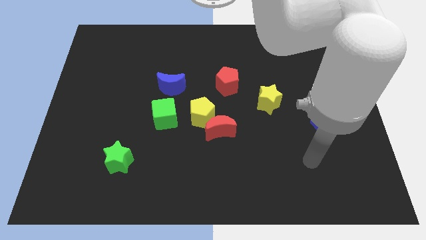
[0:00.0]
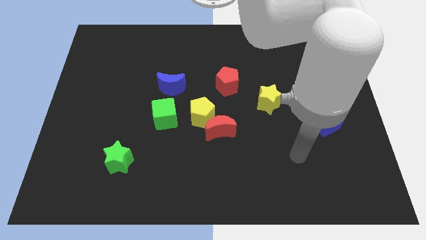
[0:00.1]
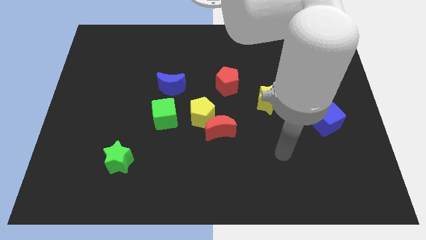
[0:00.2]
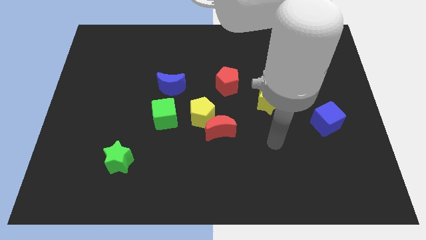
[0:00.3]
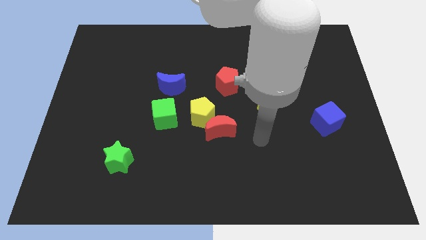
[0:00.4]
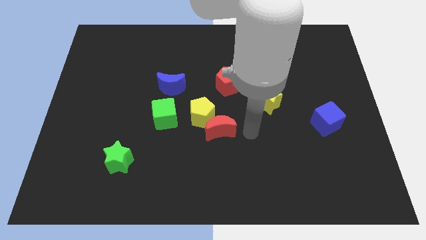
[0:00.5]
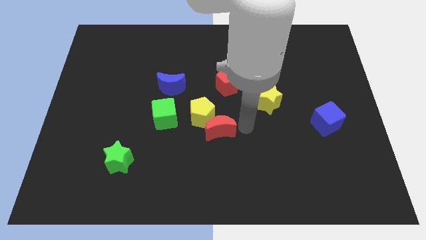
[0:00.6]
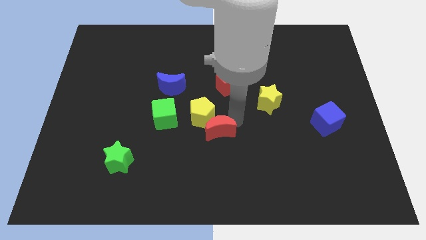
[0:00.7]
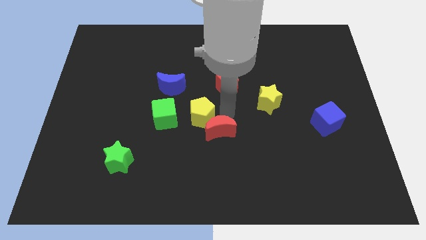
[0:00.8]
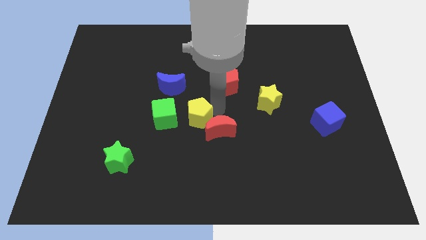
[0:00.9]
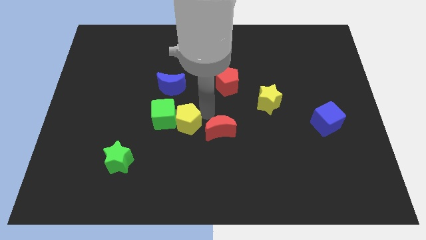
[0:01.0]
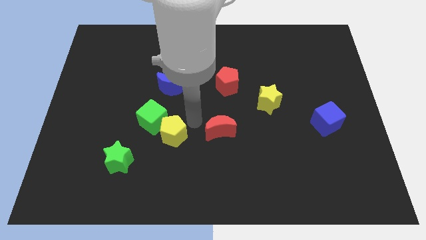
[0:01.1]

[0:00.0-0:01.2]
pull the red moon apart from the yellow pentagon

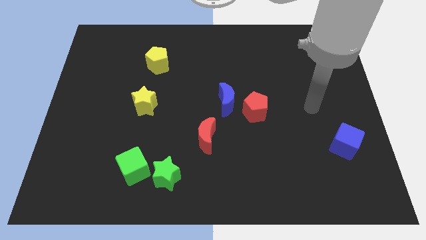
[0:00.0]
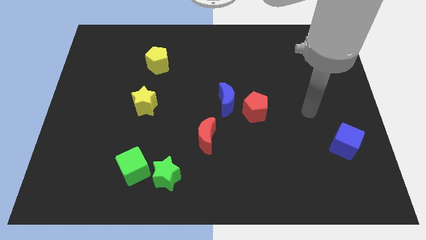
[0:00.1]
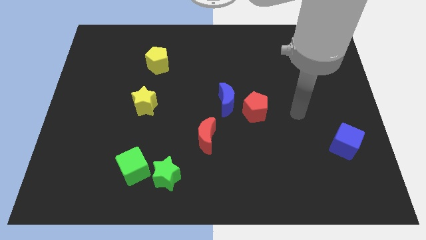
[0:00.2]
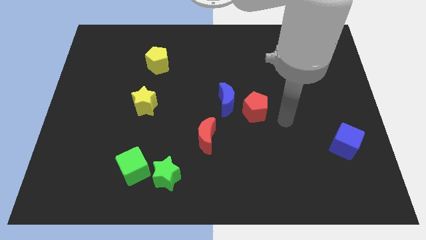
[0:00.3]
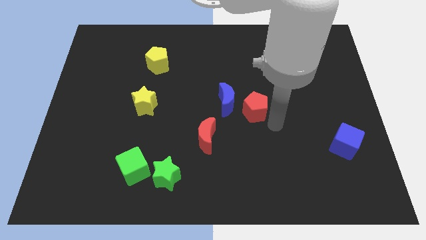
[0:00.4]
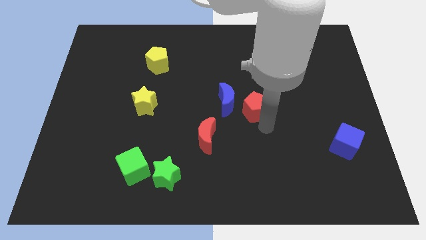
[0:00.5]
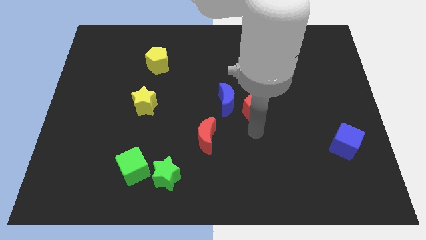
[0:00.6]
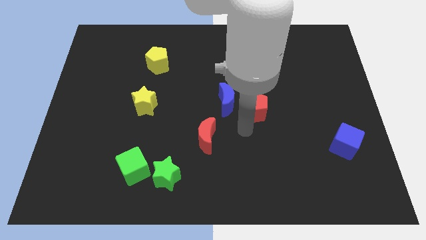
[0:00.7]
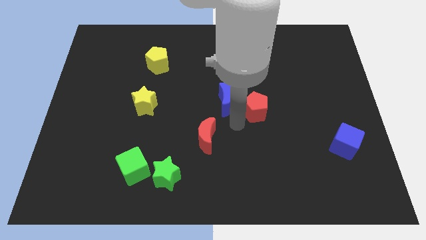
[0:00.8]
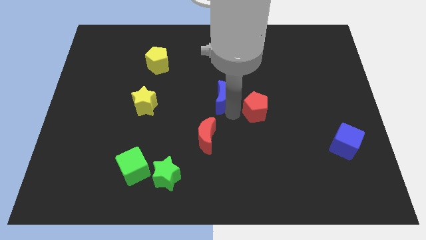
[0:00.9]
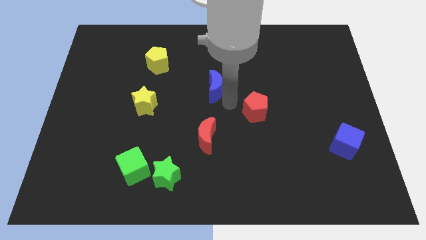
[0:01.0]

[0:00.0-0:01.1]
separate the red pentagon from the blue moon

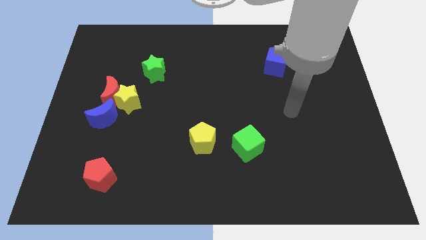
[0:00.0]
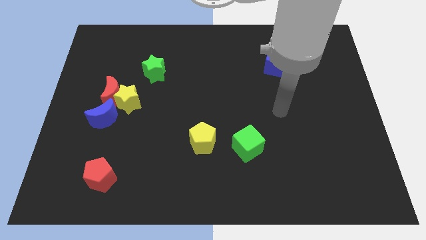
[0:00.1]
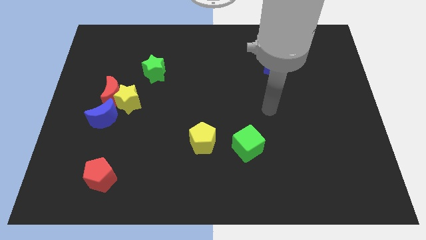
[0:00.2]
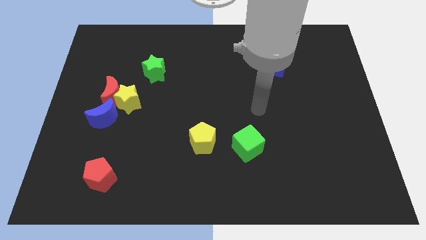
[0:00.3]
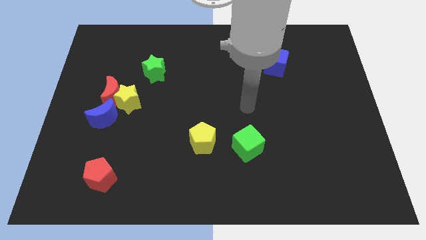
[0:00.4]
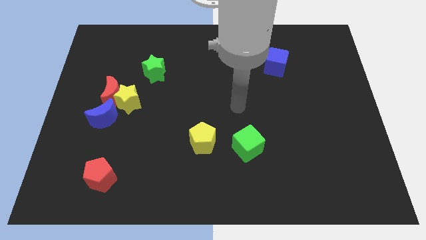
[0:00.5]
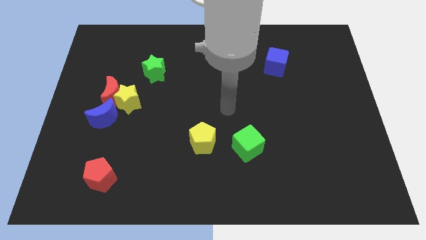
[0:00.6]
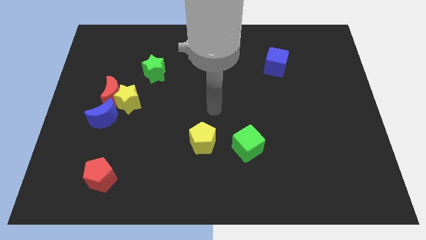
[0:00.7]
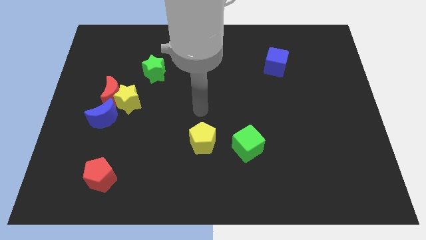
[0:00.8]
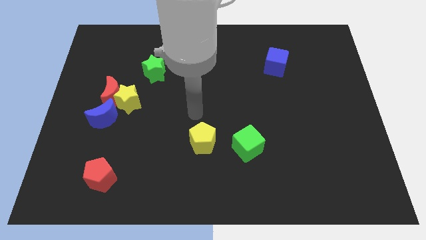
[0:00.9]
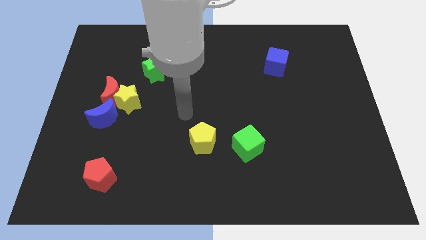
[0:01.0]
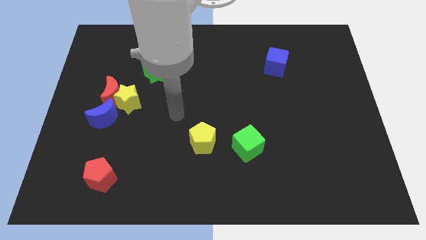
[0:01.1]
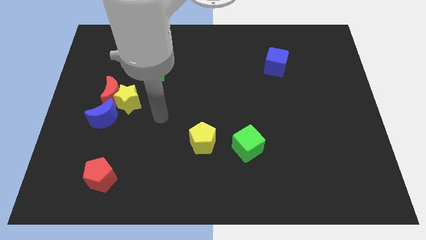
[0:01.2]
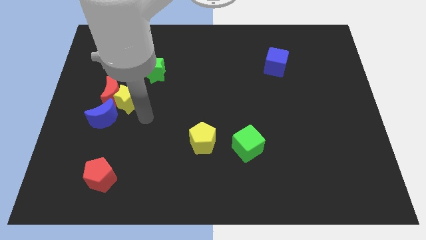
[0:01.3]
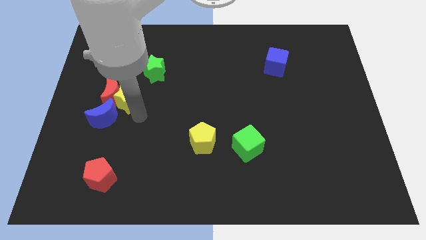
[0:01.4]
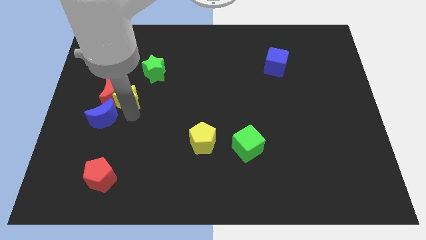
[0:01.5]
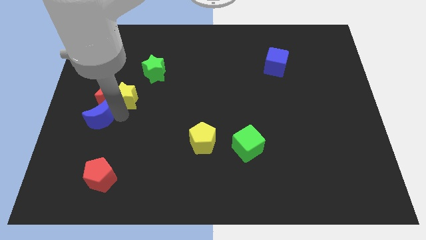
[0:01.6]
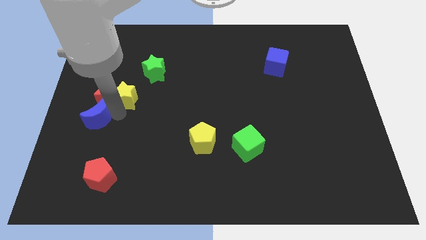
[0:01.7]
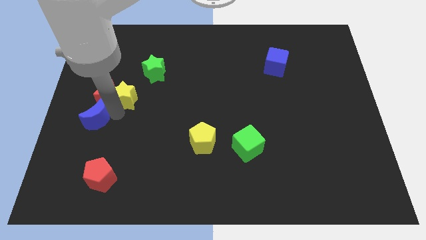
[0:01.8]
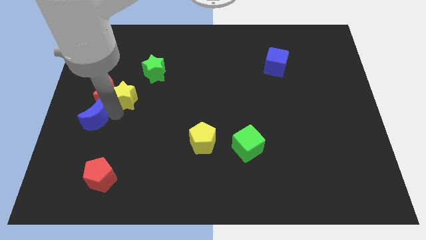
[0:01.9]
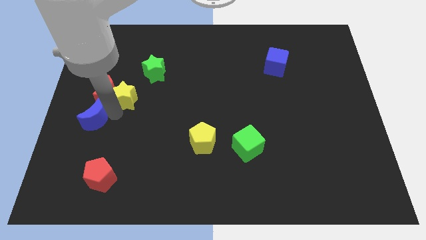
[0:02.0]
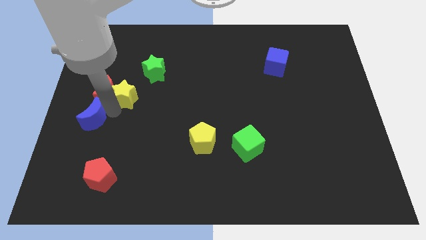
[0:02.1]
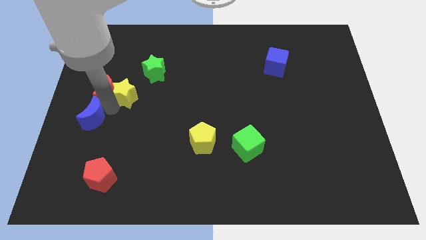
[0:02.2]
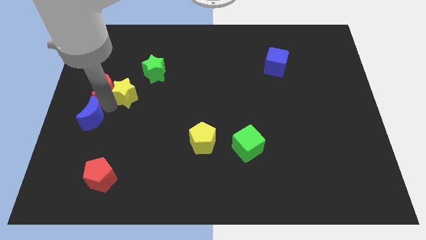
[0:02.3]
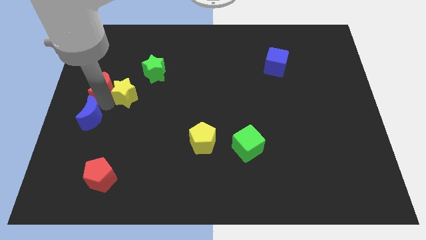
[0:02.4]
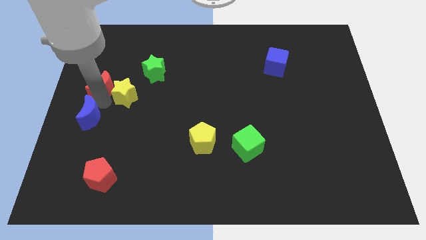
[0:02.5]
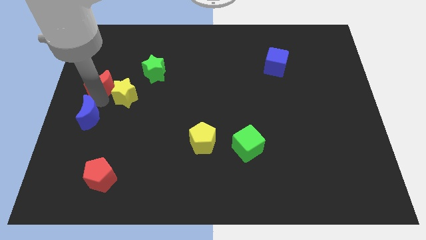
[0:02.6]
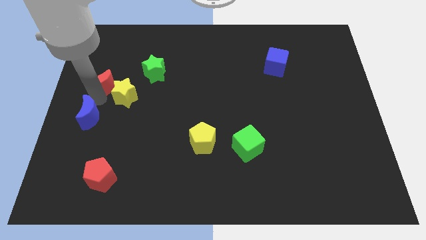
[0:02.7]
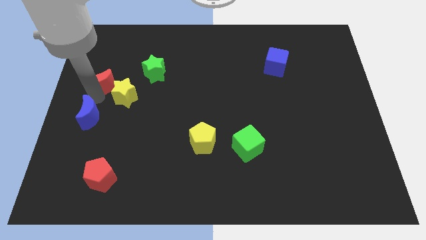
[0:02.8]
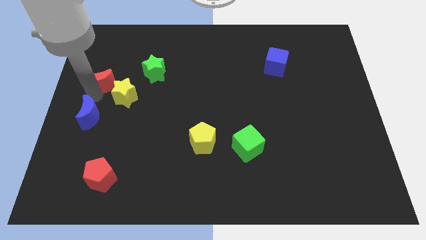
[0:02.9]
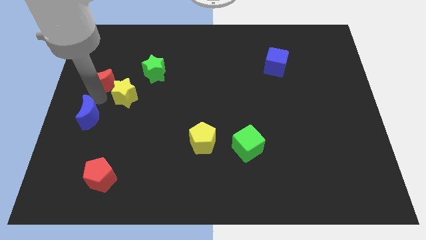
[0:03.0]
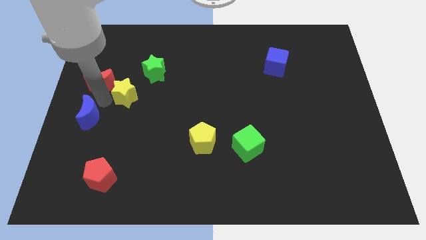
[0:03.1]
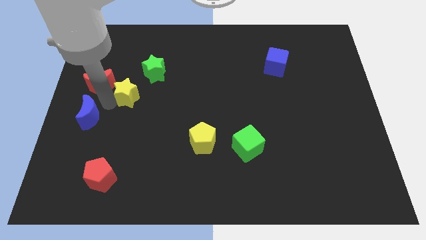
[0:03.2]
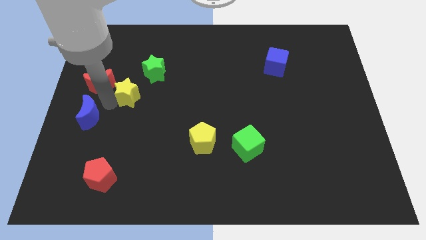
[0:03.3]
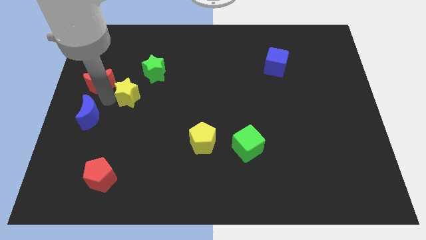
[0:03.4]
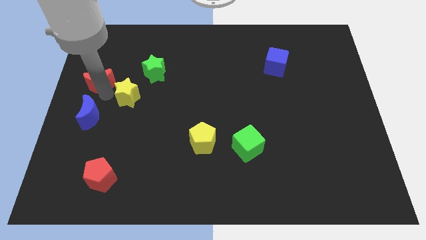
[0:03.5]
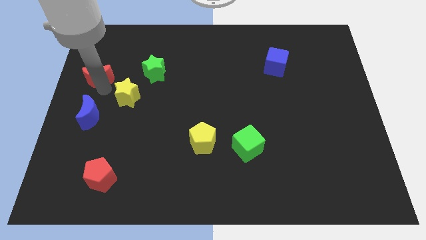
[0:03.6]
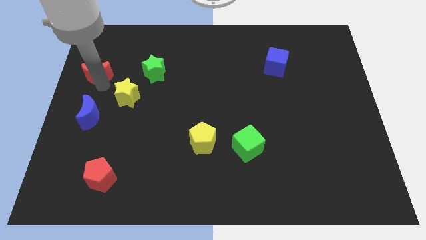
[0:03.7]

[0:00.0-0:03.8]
separate the red moon from the yellow star and blue moon

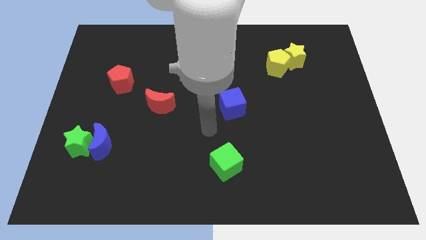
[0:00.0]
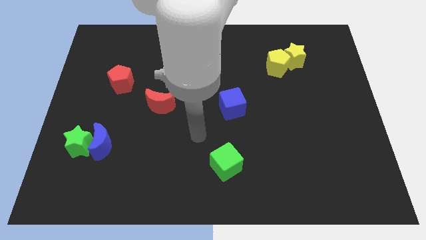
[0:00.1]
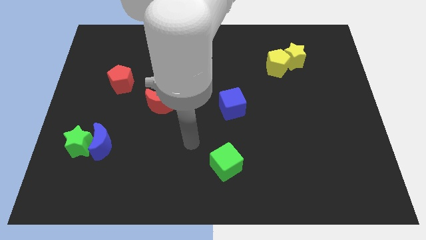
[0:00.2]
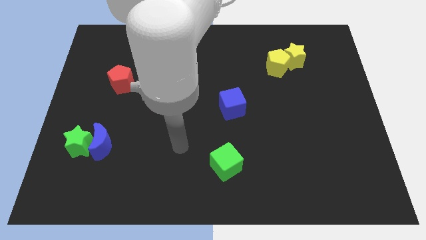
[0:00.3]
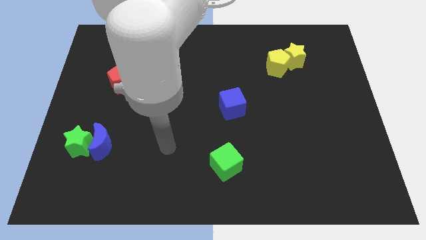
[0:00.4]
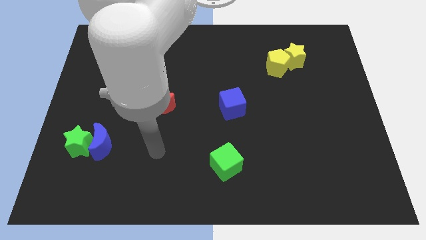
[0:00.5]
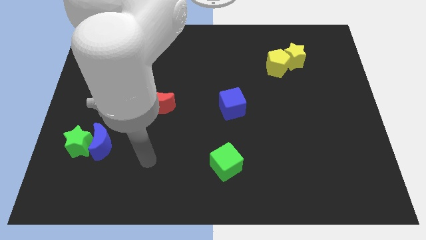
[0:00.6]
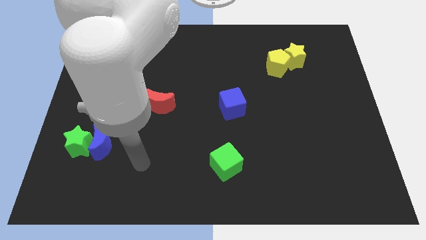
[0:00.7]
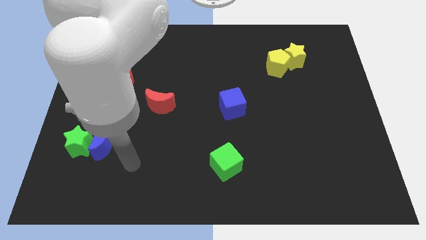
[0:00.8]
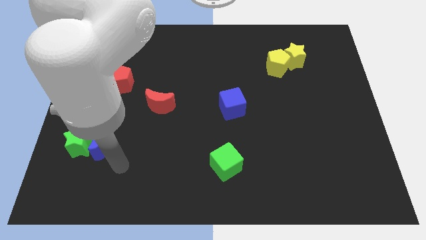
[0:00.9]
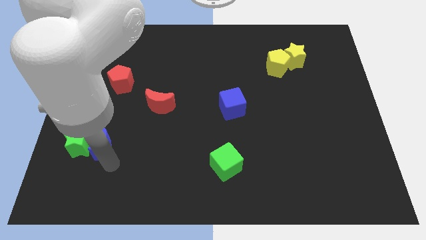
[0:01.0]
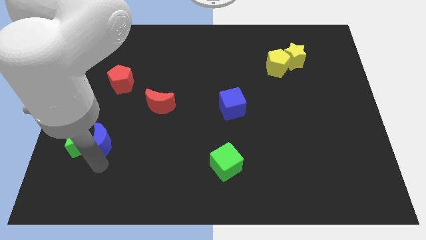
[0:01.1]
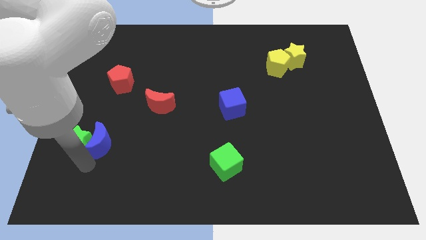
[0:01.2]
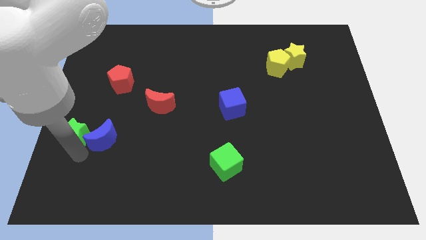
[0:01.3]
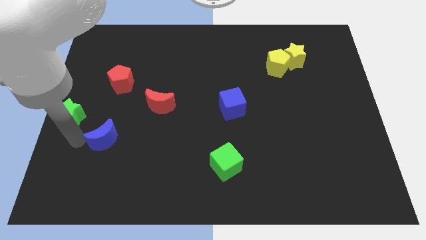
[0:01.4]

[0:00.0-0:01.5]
pull the blue moon apart from the green star

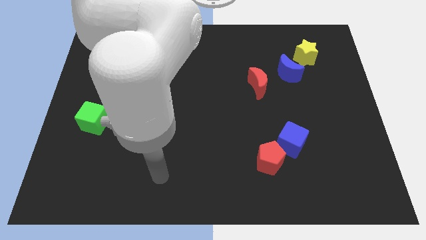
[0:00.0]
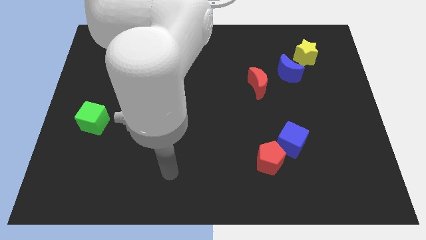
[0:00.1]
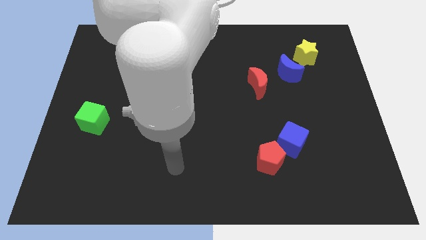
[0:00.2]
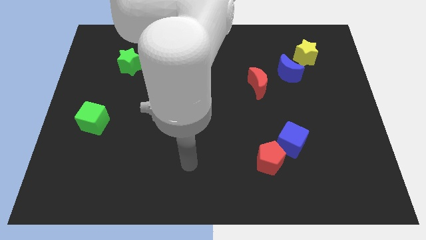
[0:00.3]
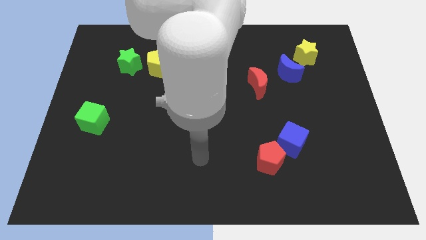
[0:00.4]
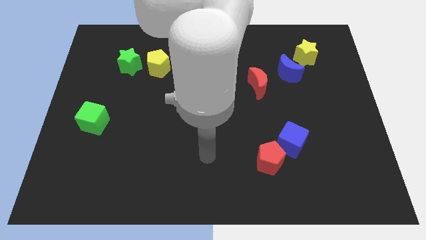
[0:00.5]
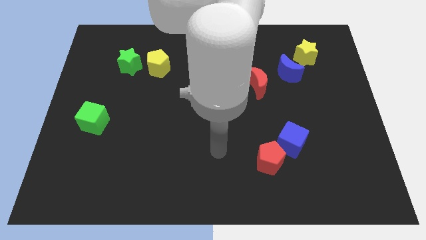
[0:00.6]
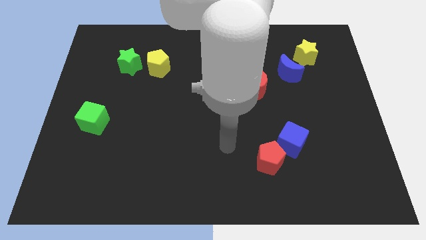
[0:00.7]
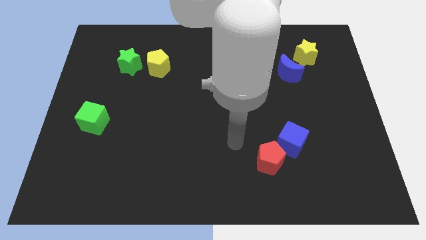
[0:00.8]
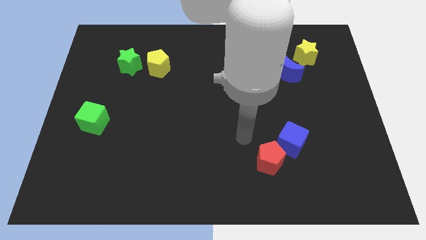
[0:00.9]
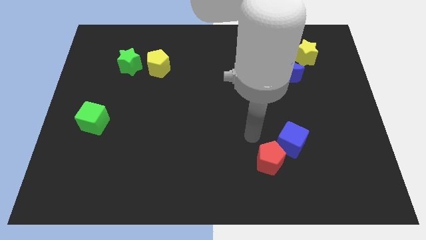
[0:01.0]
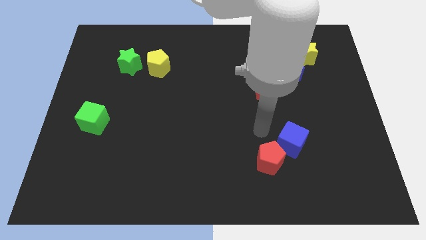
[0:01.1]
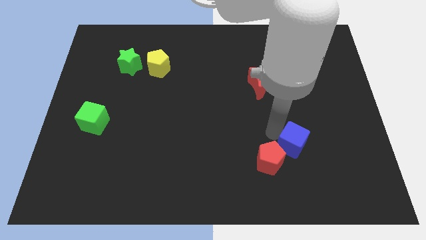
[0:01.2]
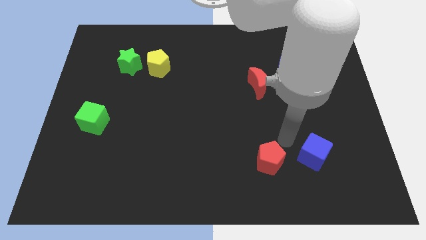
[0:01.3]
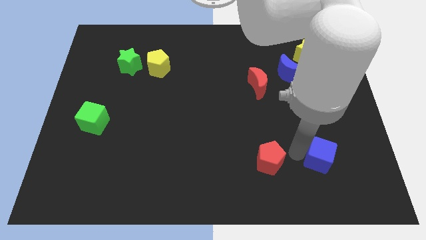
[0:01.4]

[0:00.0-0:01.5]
separate the red pentagon from the blue cube

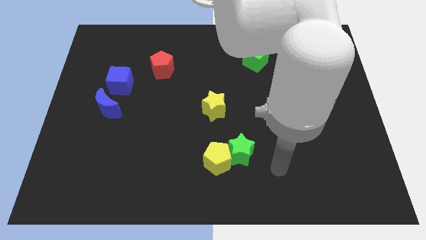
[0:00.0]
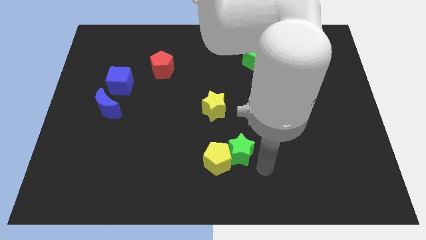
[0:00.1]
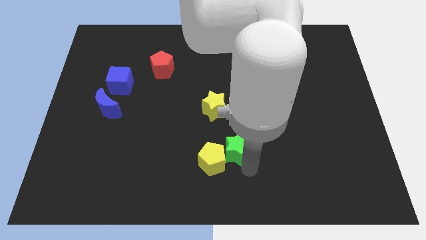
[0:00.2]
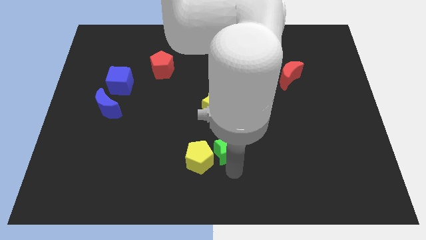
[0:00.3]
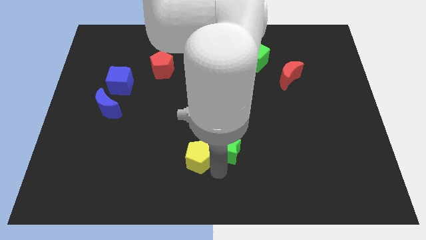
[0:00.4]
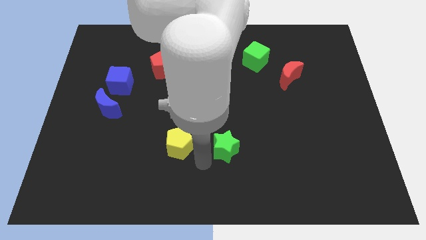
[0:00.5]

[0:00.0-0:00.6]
move the green star away from the yellow pentagon
